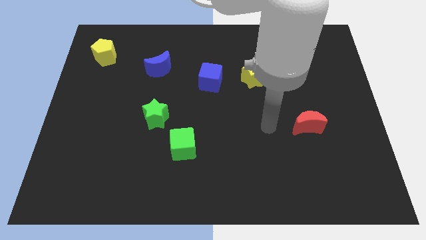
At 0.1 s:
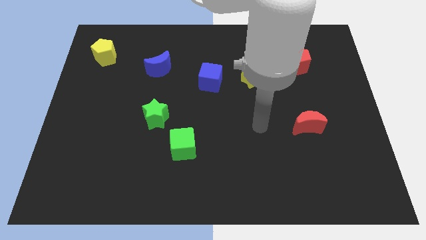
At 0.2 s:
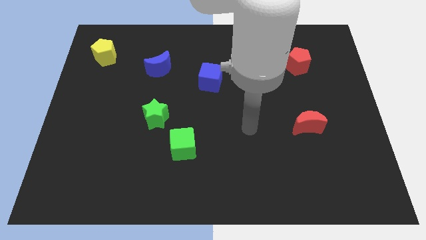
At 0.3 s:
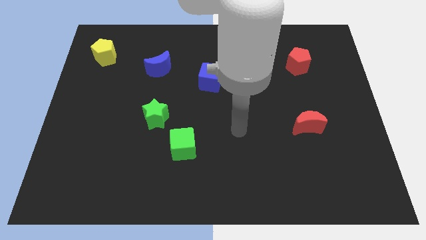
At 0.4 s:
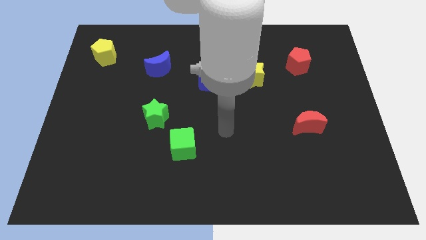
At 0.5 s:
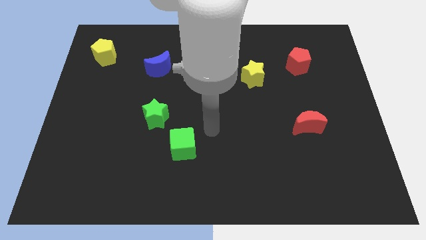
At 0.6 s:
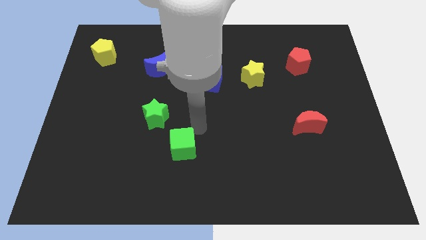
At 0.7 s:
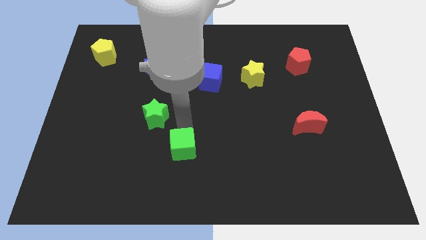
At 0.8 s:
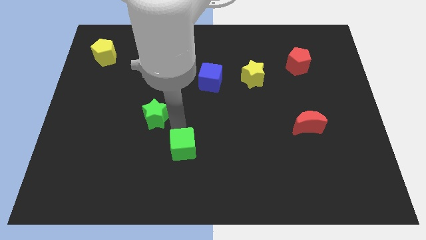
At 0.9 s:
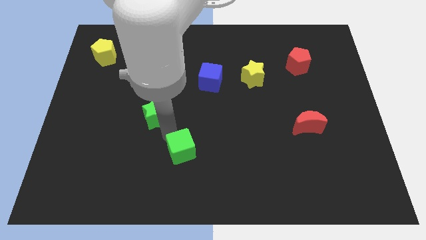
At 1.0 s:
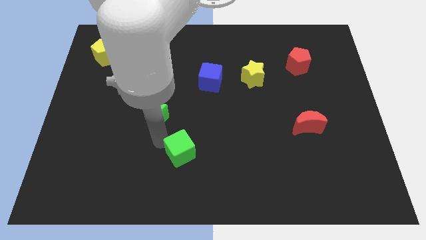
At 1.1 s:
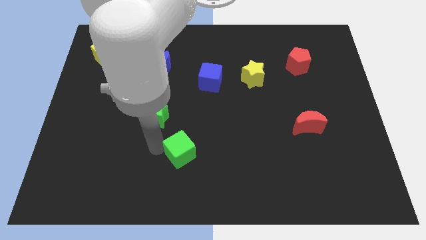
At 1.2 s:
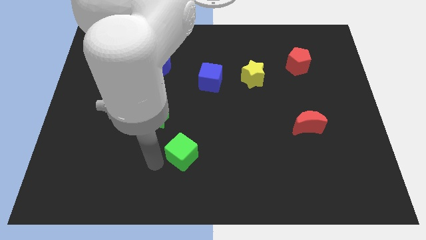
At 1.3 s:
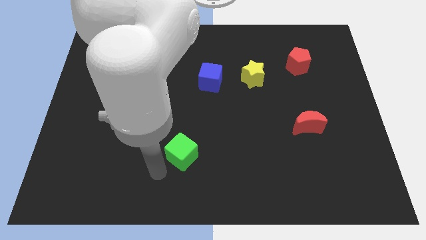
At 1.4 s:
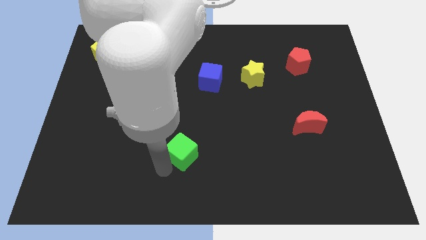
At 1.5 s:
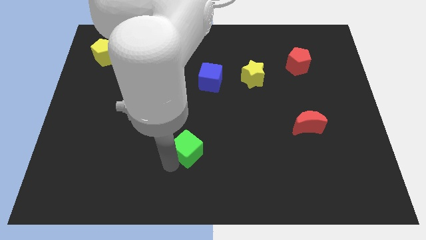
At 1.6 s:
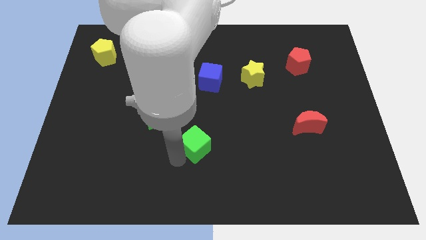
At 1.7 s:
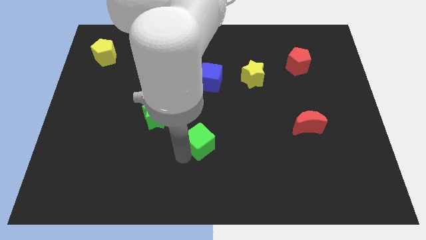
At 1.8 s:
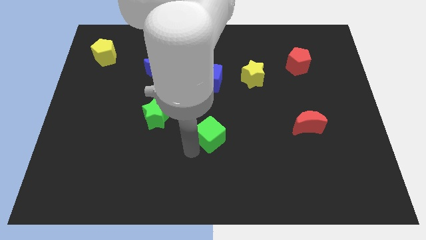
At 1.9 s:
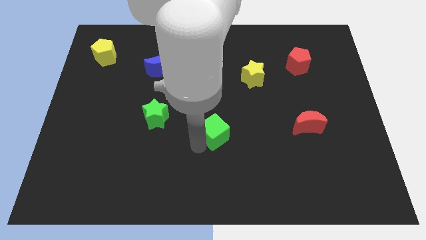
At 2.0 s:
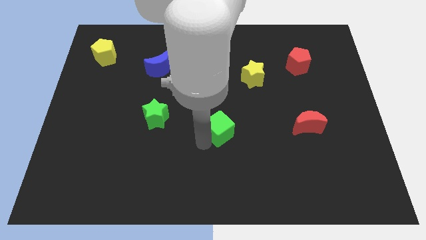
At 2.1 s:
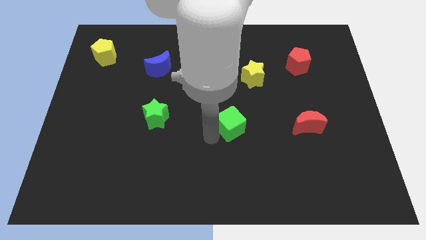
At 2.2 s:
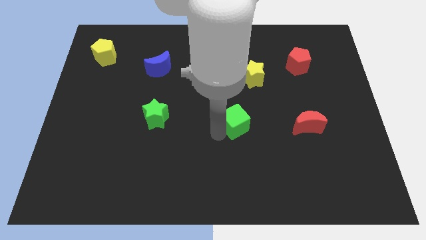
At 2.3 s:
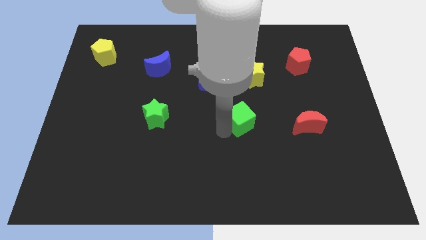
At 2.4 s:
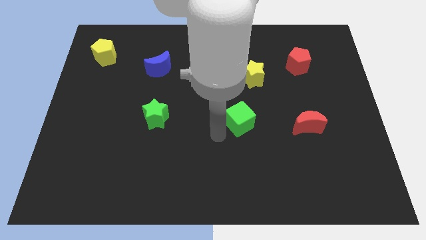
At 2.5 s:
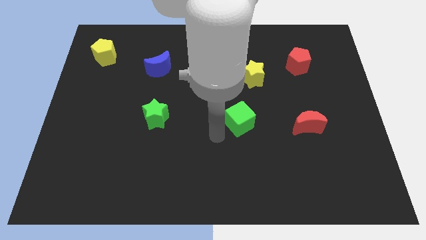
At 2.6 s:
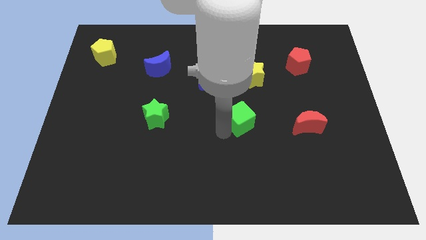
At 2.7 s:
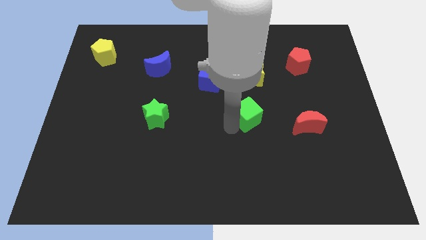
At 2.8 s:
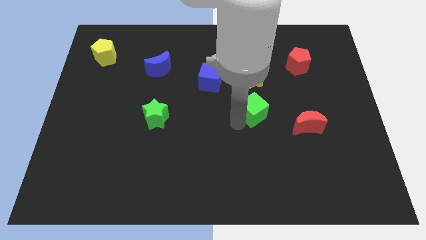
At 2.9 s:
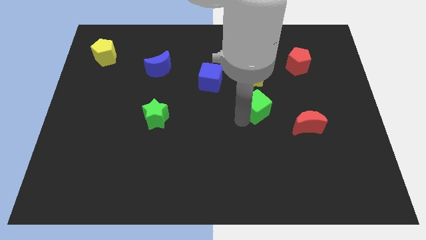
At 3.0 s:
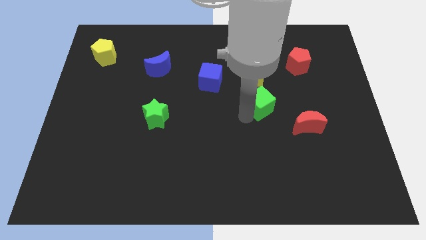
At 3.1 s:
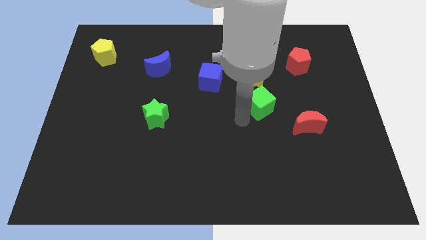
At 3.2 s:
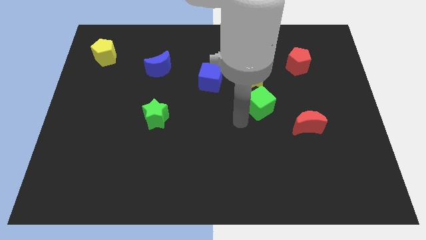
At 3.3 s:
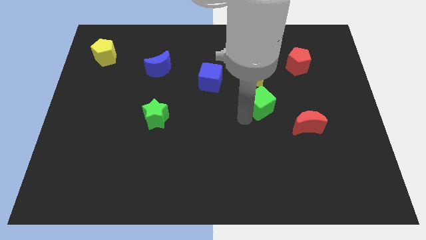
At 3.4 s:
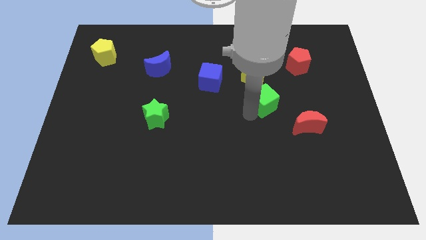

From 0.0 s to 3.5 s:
move the green cube upwards and to the right

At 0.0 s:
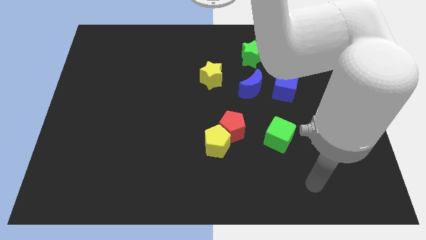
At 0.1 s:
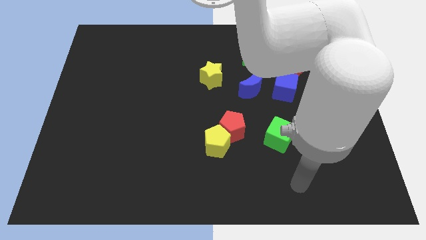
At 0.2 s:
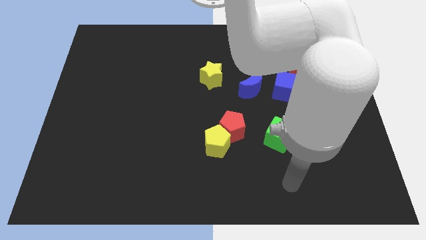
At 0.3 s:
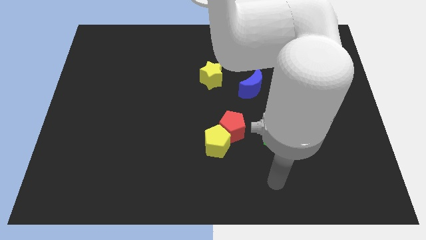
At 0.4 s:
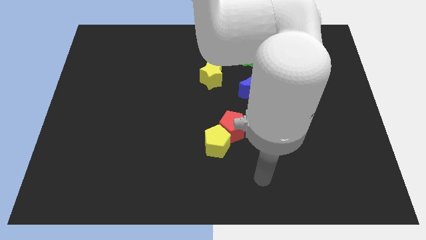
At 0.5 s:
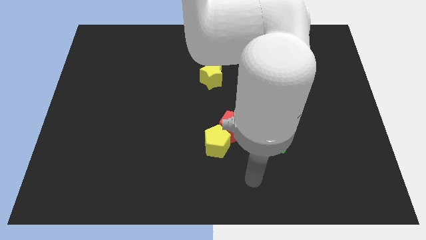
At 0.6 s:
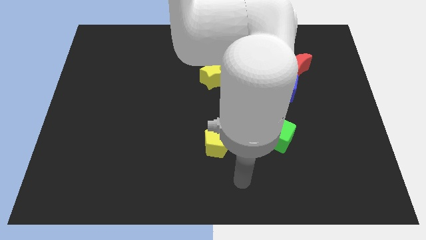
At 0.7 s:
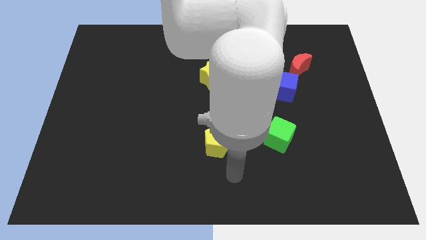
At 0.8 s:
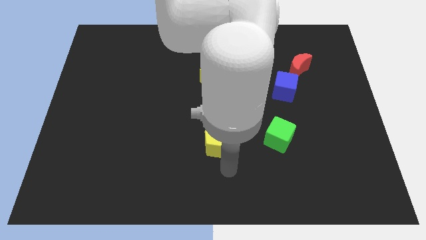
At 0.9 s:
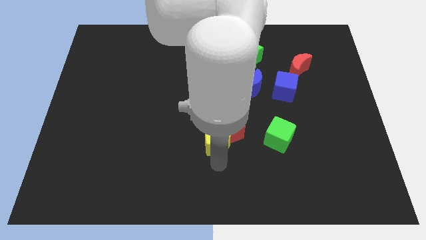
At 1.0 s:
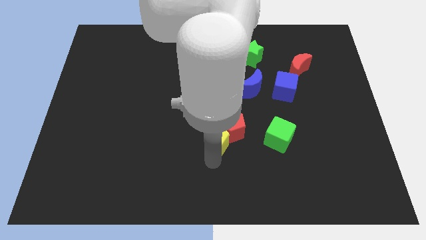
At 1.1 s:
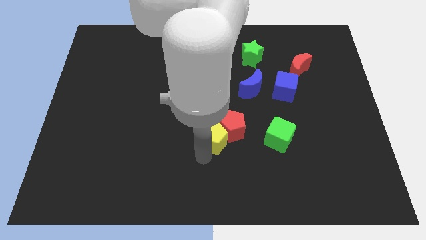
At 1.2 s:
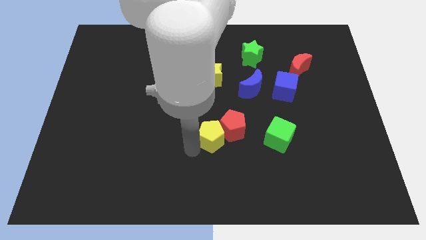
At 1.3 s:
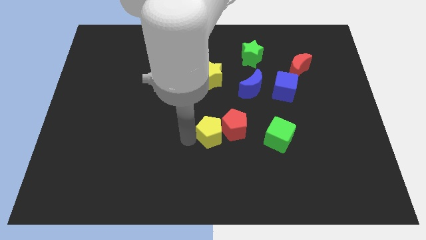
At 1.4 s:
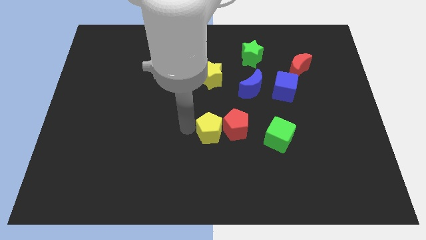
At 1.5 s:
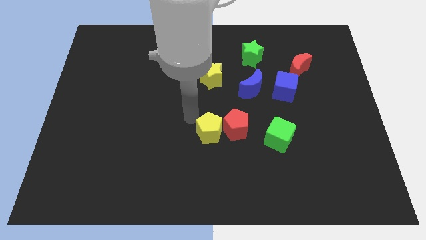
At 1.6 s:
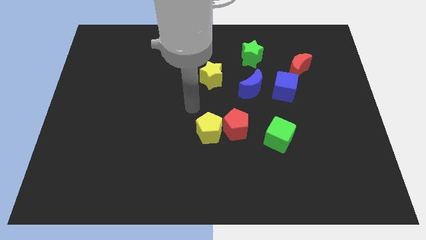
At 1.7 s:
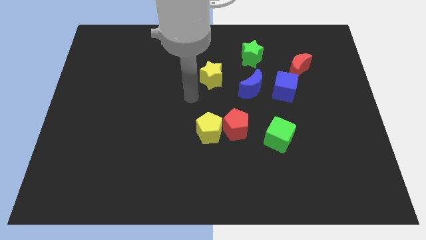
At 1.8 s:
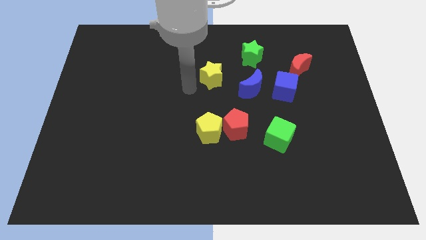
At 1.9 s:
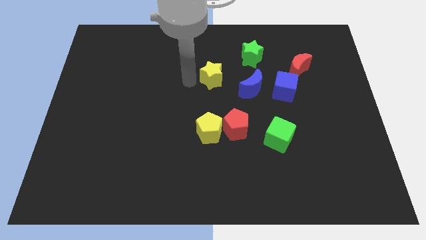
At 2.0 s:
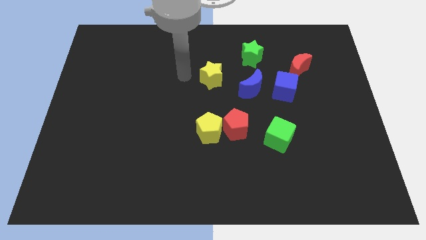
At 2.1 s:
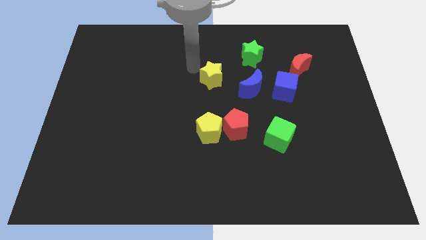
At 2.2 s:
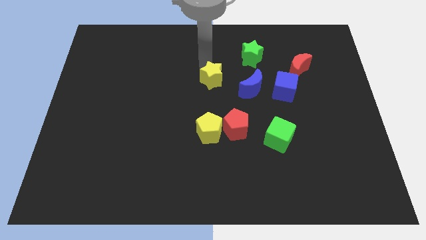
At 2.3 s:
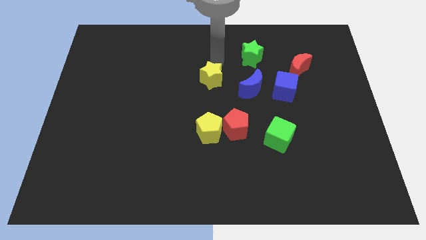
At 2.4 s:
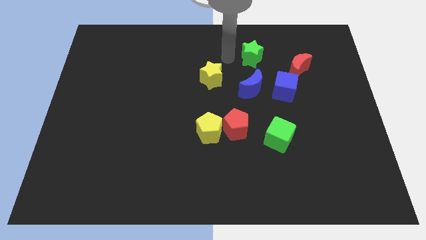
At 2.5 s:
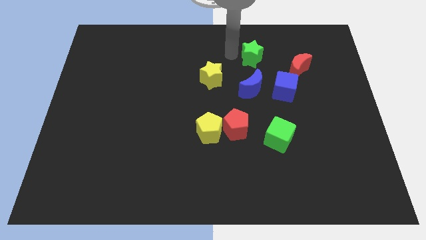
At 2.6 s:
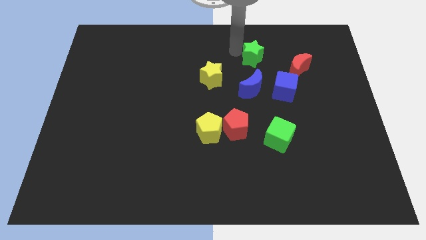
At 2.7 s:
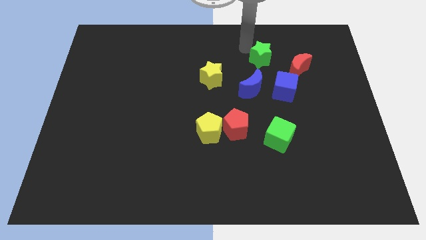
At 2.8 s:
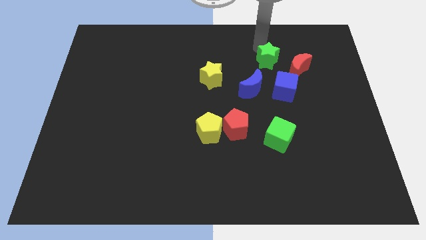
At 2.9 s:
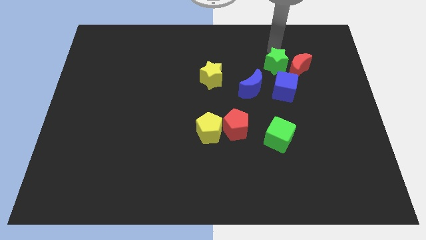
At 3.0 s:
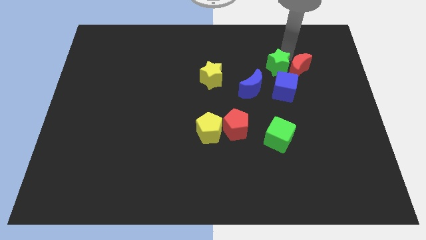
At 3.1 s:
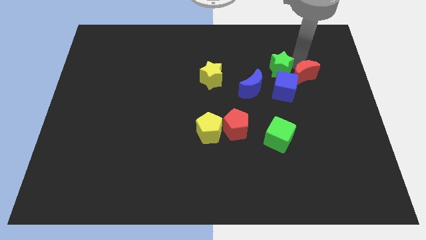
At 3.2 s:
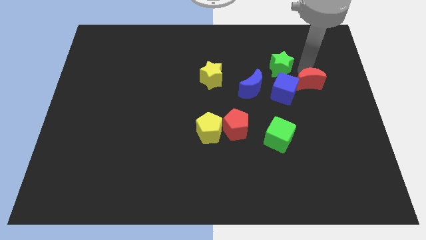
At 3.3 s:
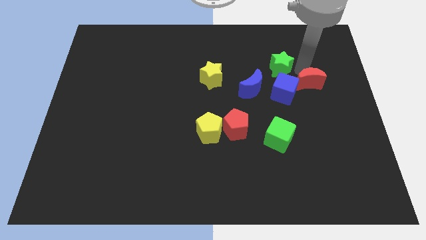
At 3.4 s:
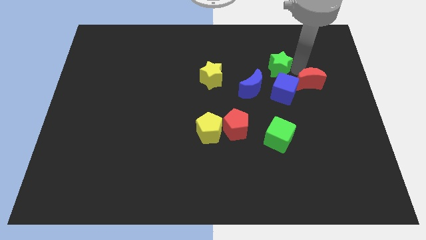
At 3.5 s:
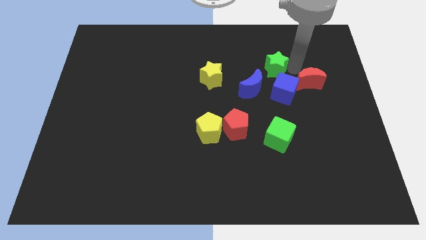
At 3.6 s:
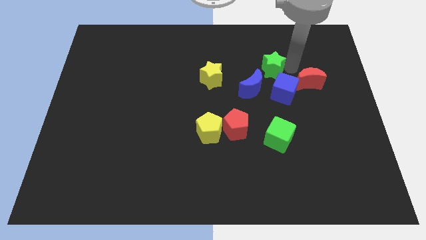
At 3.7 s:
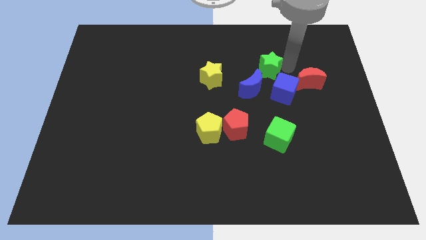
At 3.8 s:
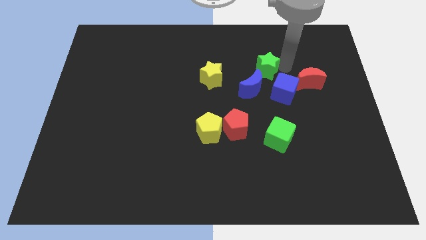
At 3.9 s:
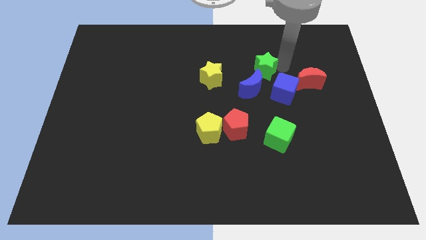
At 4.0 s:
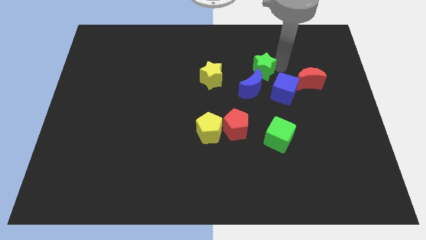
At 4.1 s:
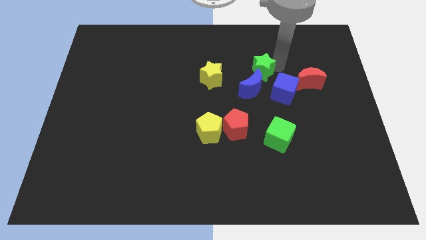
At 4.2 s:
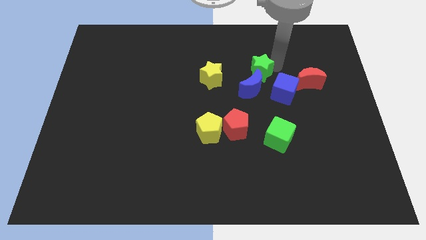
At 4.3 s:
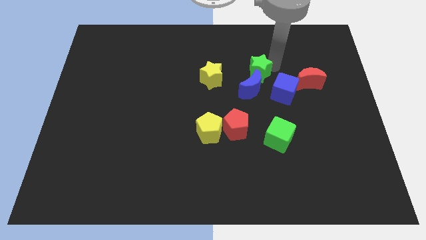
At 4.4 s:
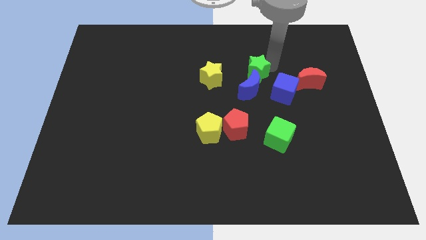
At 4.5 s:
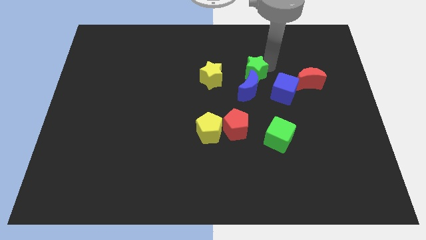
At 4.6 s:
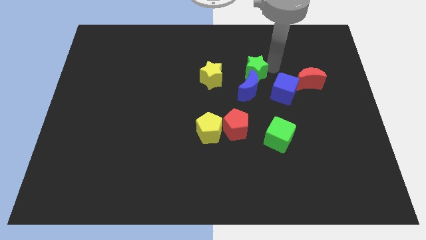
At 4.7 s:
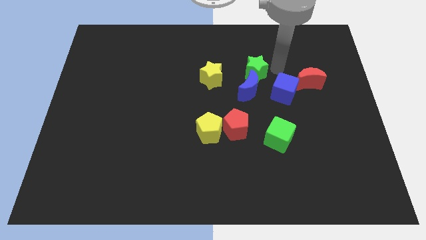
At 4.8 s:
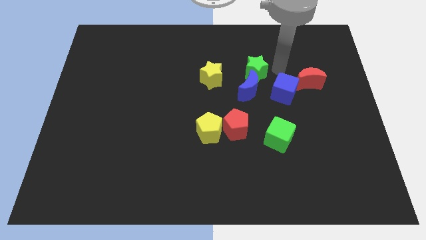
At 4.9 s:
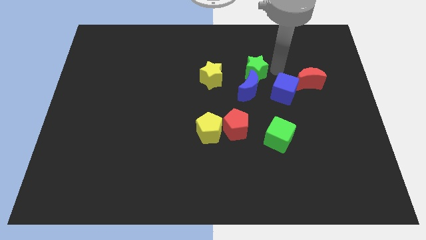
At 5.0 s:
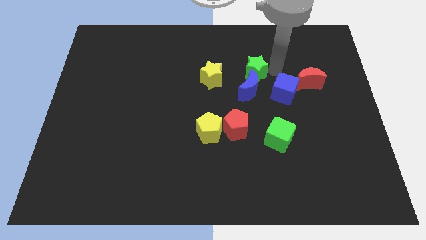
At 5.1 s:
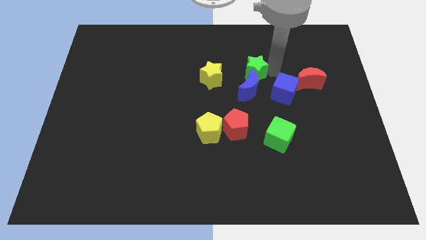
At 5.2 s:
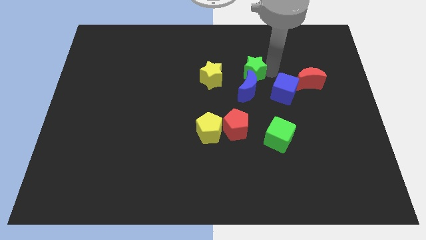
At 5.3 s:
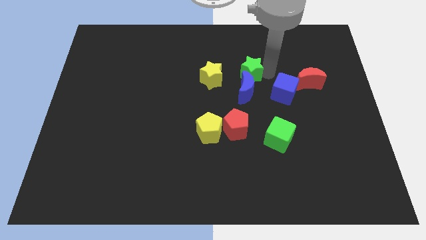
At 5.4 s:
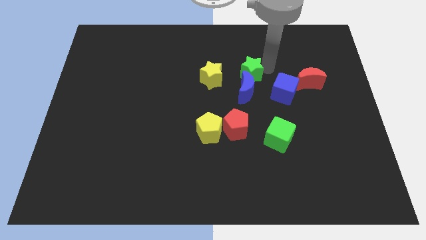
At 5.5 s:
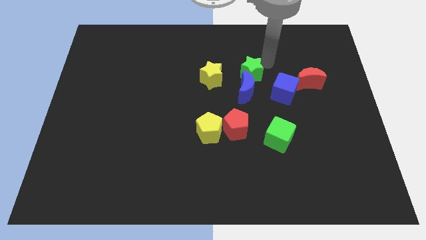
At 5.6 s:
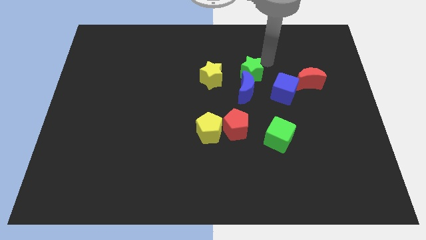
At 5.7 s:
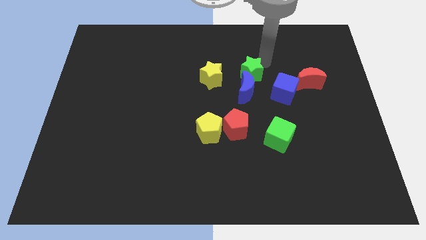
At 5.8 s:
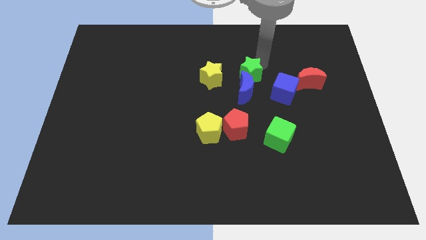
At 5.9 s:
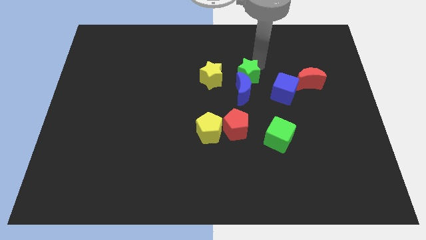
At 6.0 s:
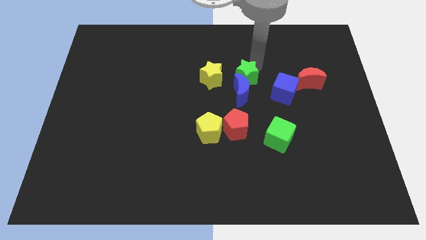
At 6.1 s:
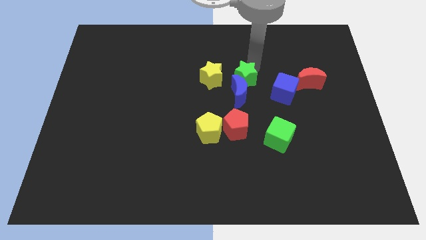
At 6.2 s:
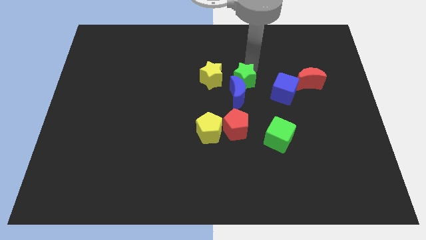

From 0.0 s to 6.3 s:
slightly slide the green star diagonally down and to the left
